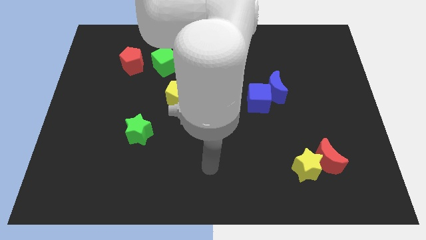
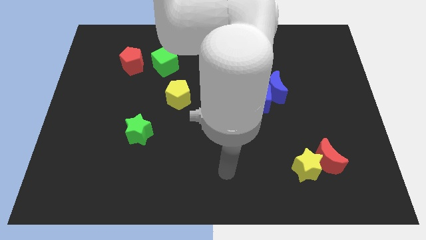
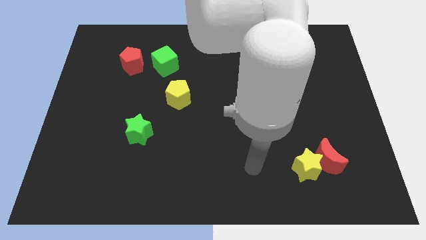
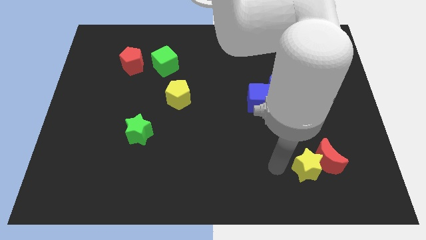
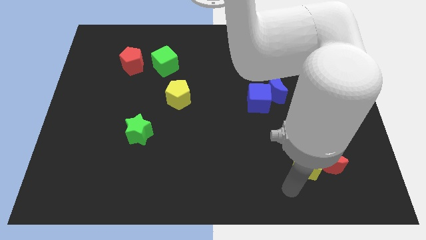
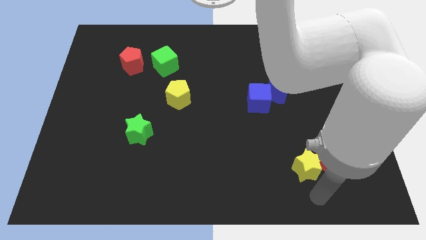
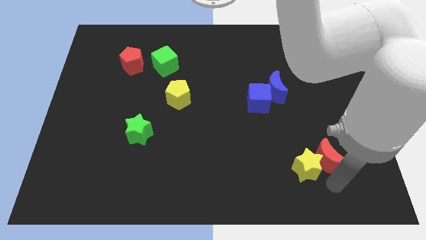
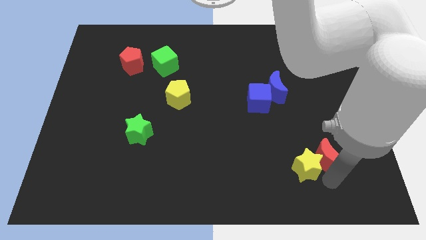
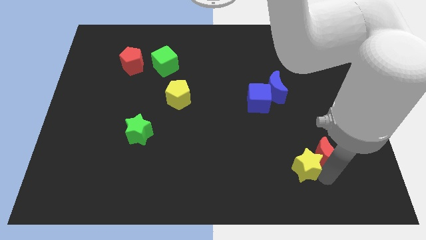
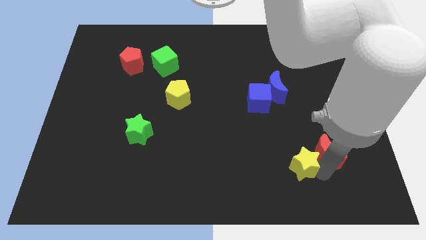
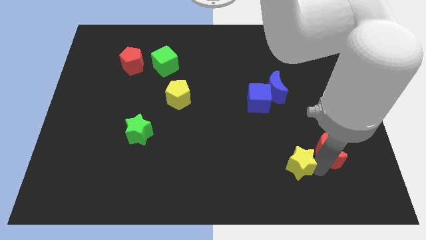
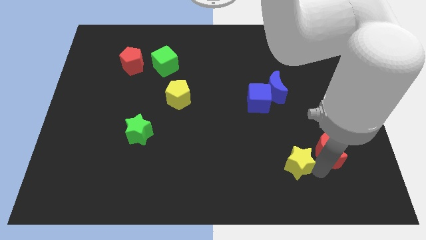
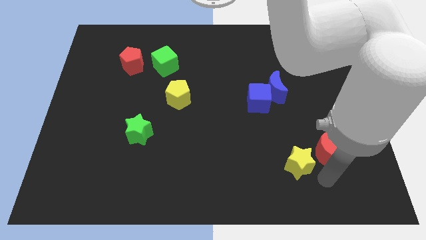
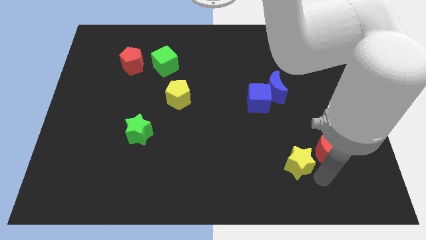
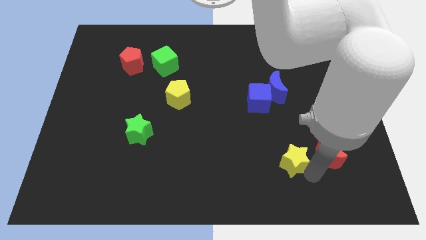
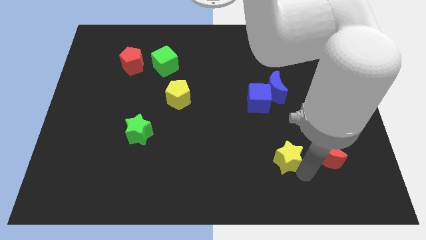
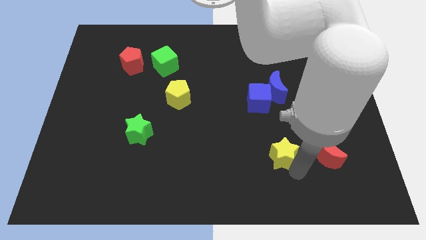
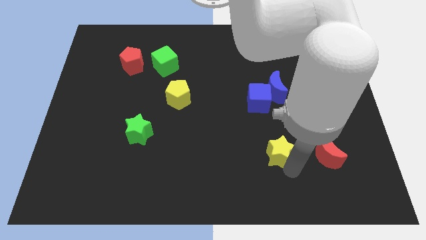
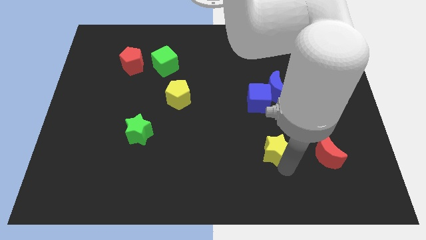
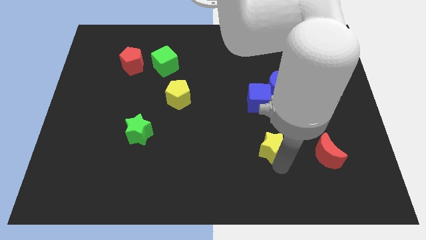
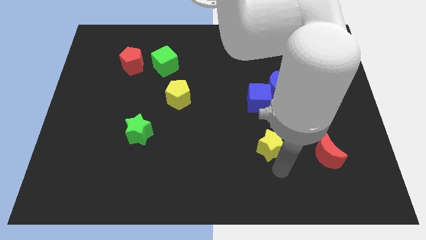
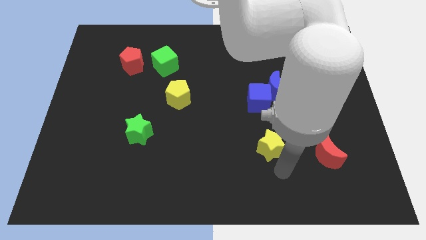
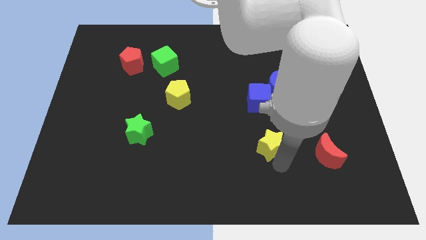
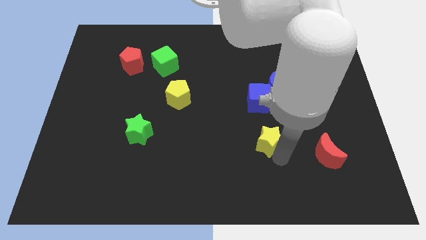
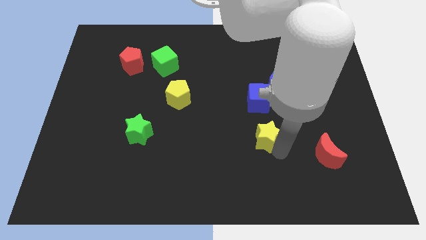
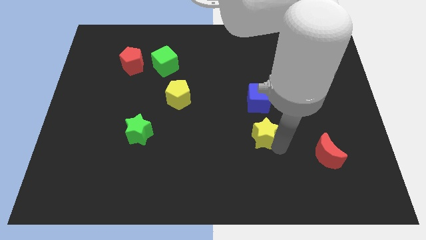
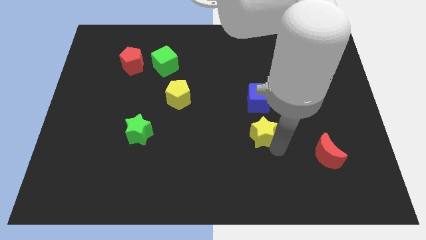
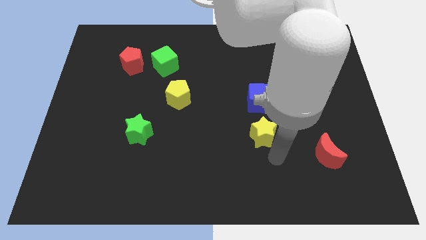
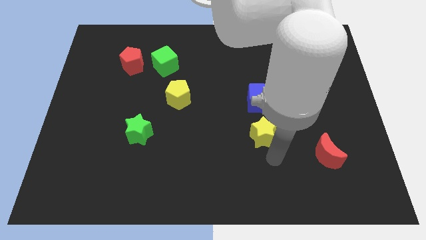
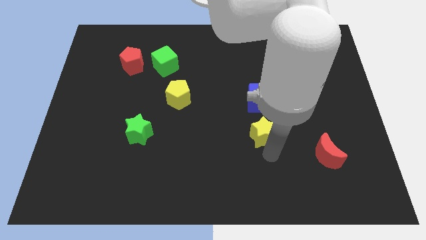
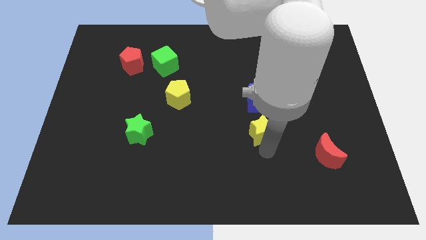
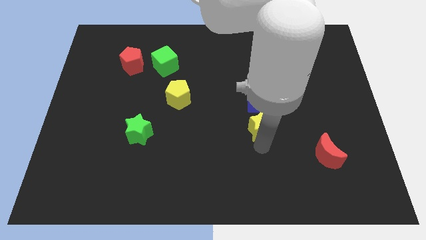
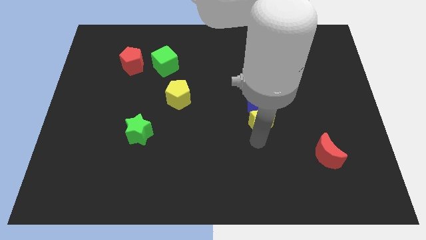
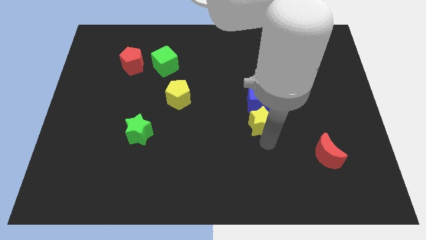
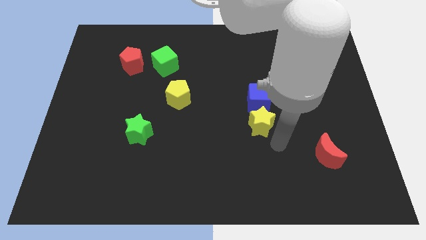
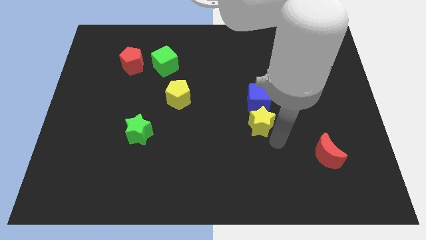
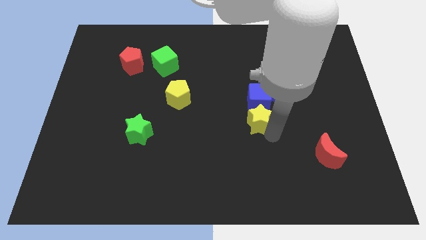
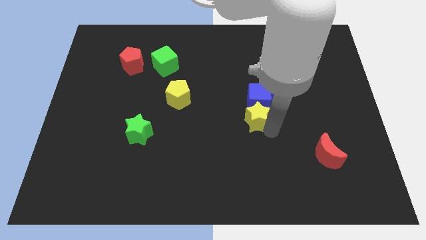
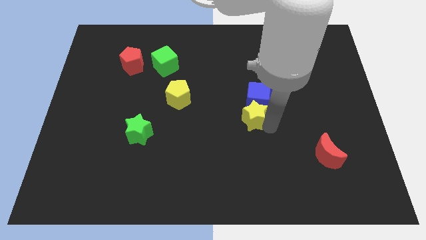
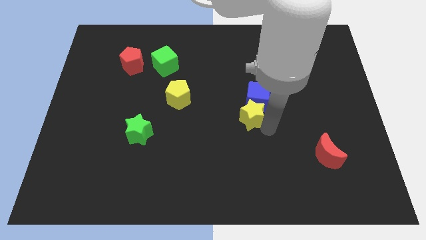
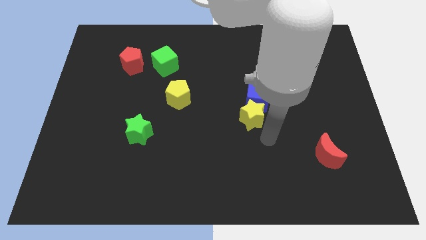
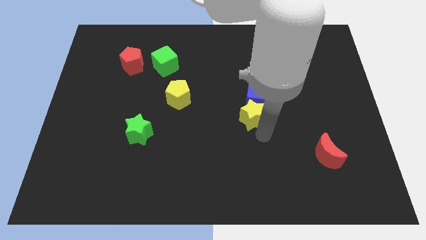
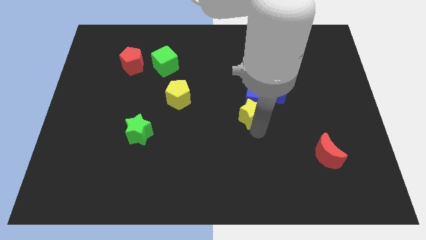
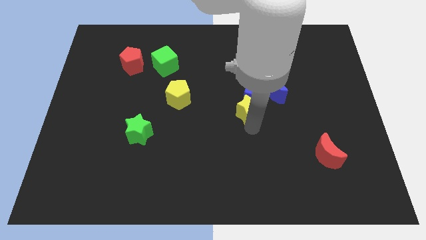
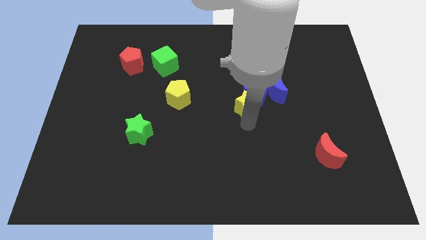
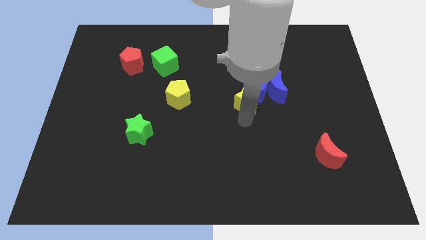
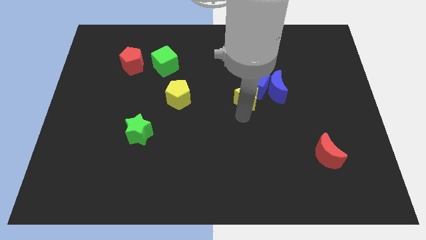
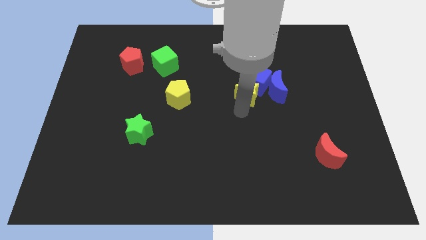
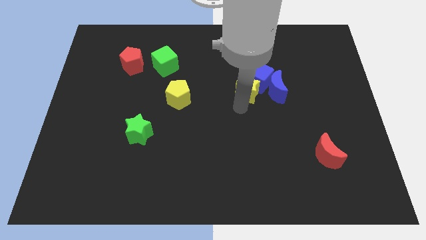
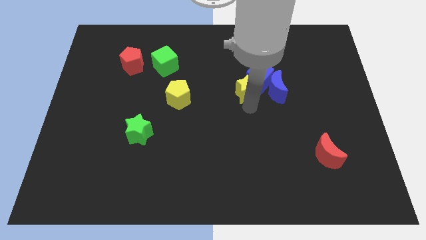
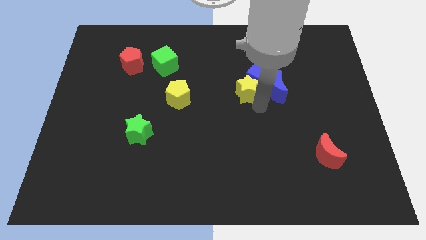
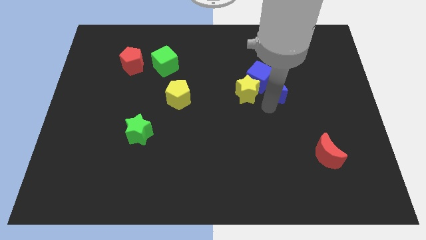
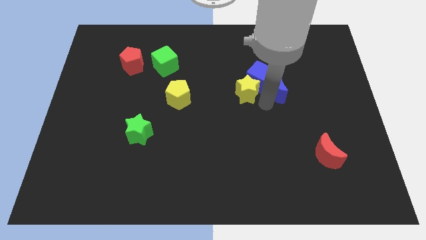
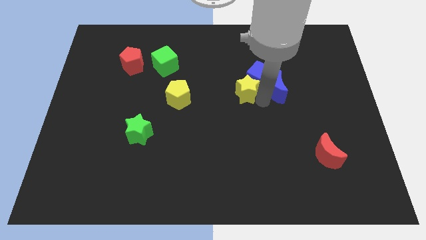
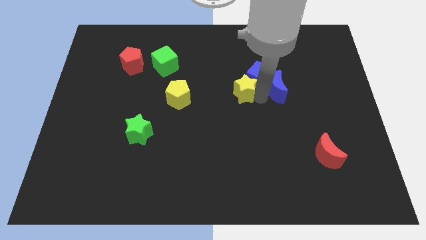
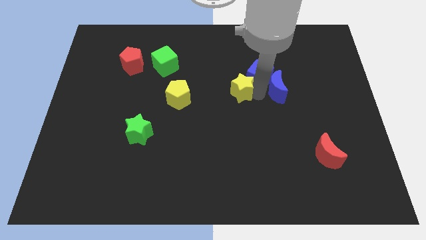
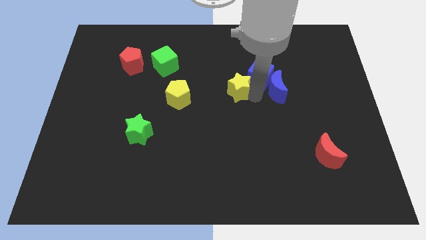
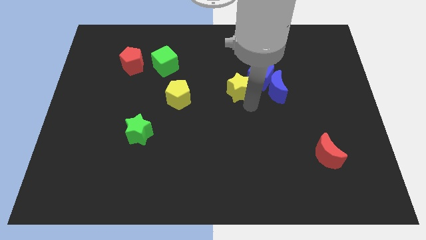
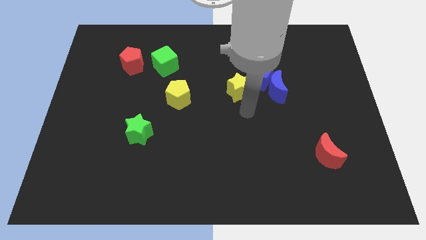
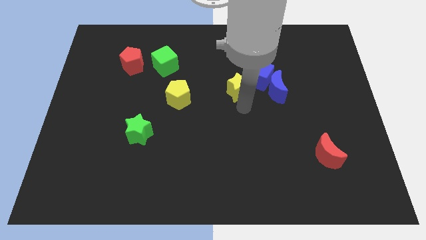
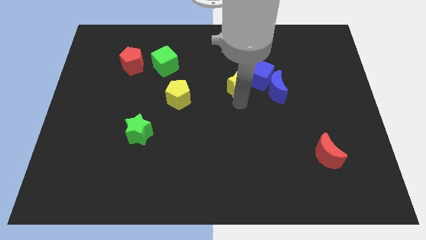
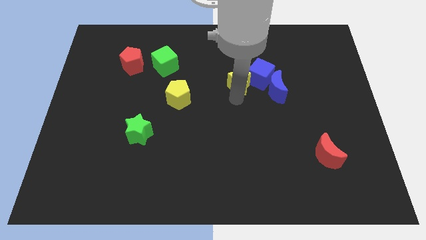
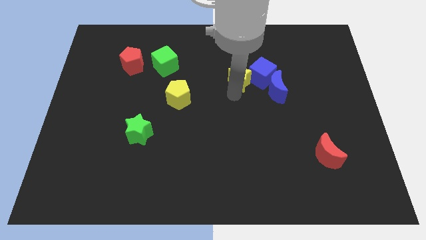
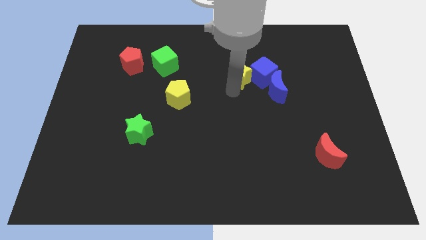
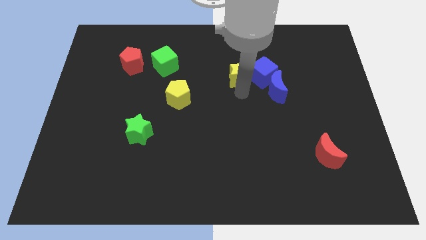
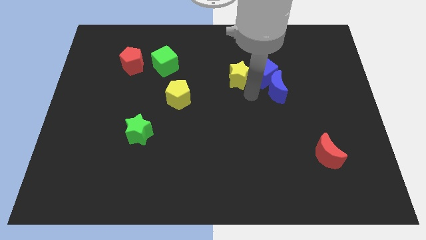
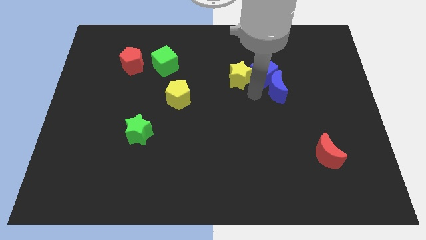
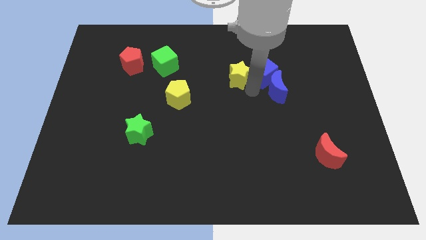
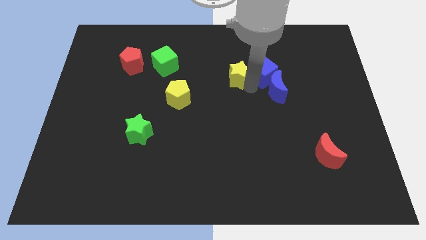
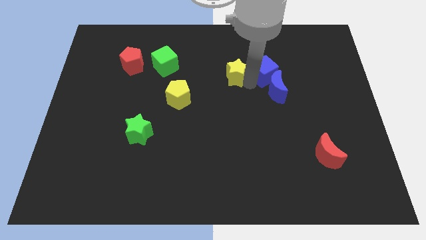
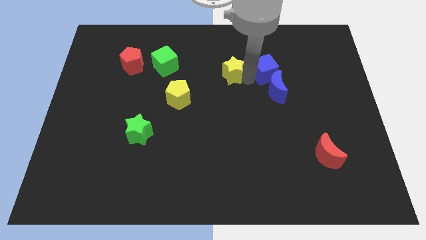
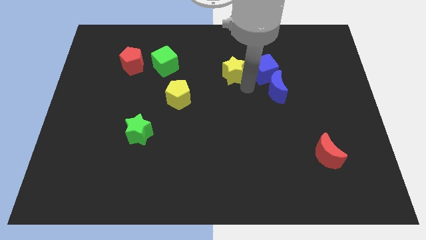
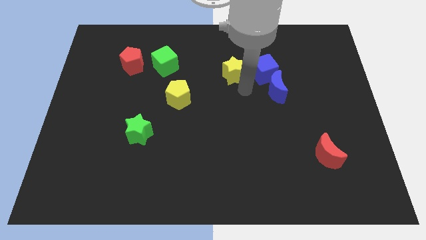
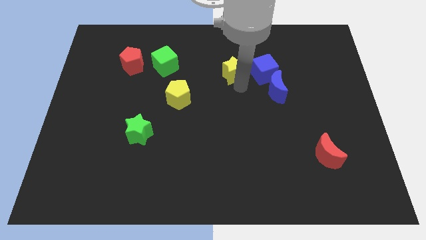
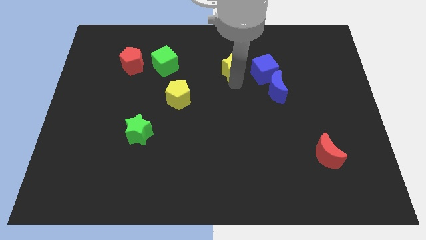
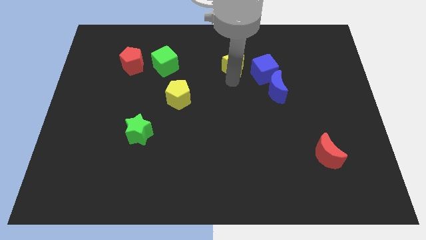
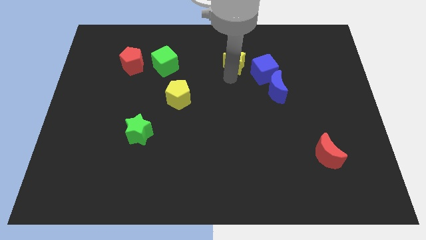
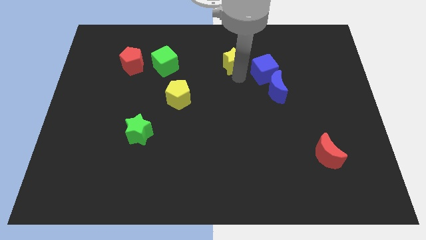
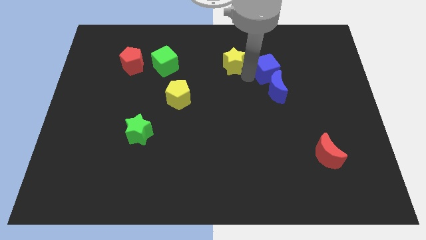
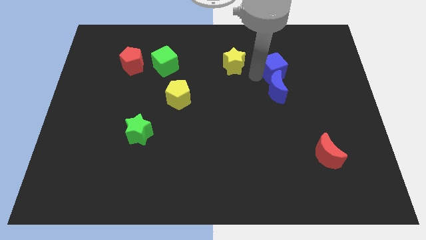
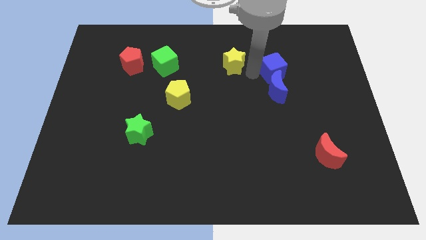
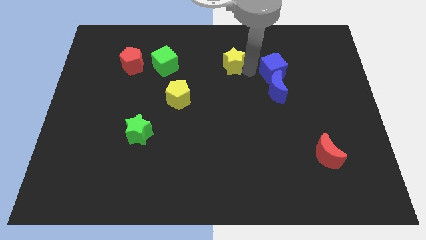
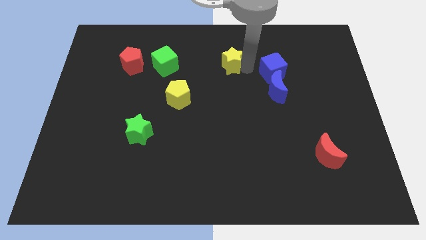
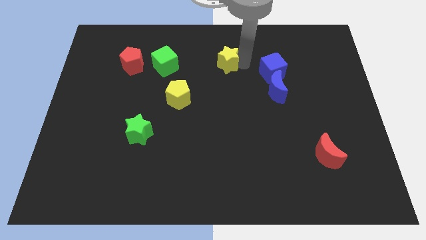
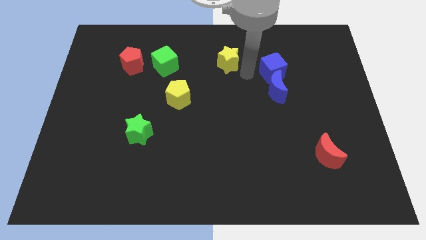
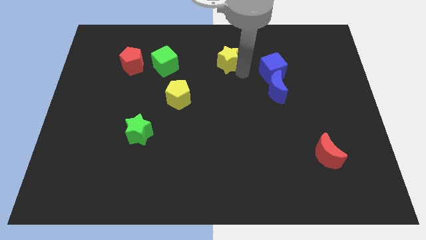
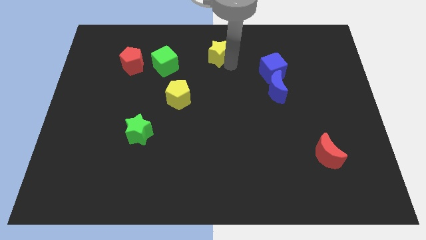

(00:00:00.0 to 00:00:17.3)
move the yellow star to the towards your base
